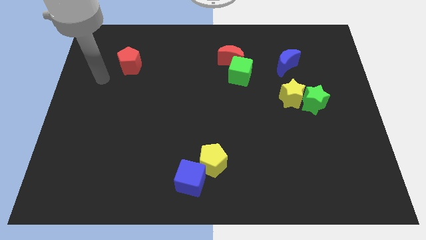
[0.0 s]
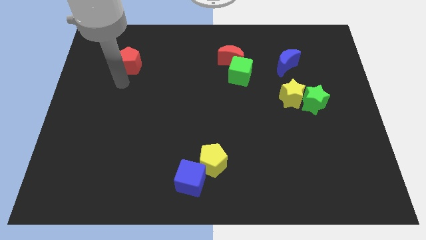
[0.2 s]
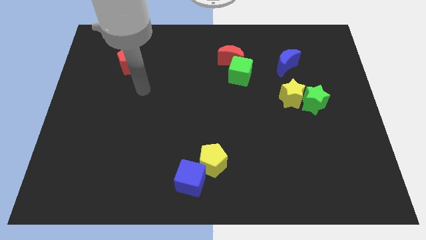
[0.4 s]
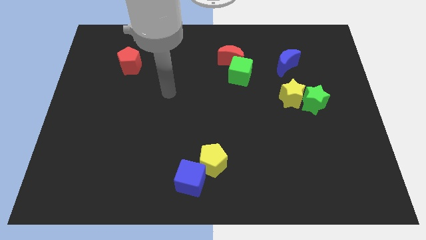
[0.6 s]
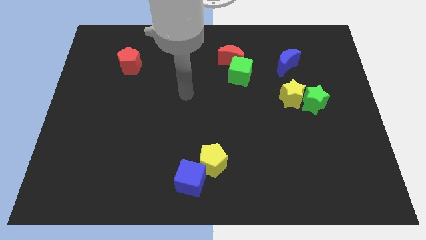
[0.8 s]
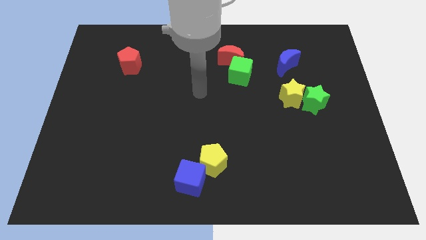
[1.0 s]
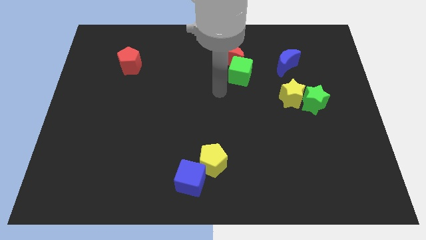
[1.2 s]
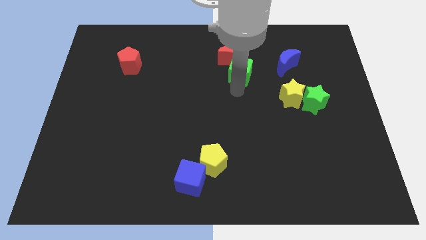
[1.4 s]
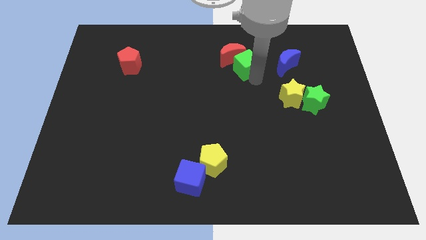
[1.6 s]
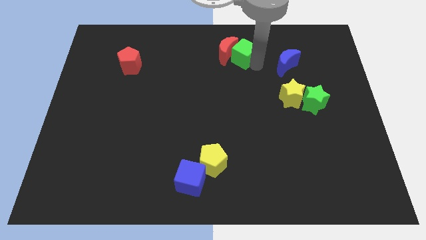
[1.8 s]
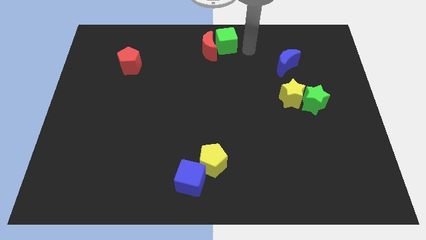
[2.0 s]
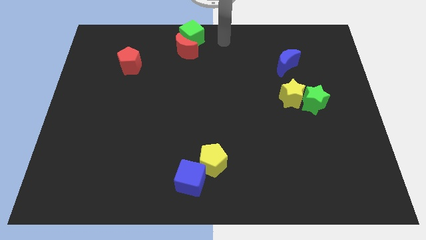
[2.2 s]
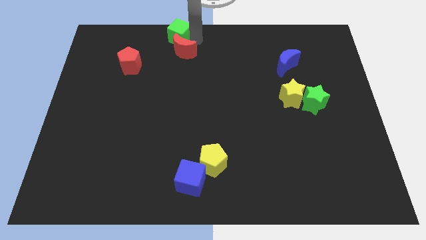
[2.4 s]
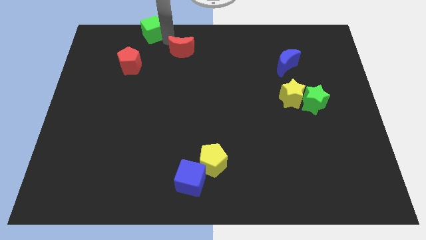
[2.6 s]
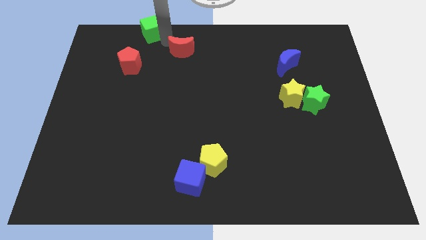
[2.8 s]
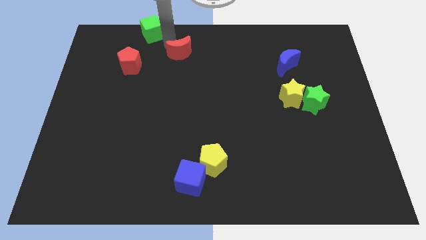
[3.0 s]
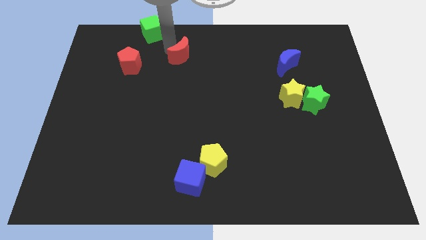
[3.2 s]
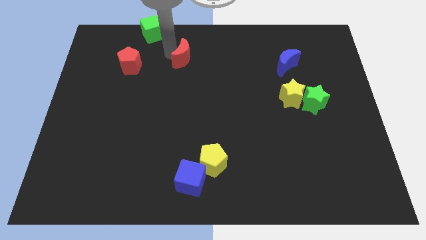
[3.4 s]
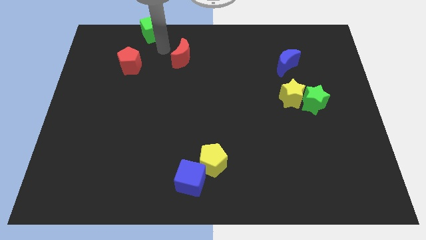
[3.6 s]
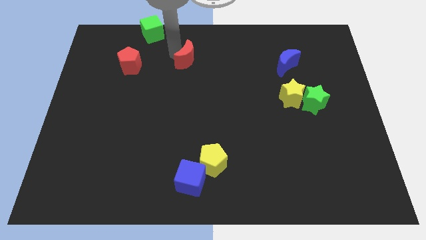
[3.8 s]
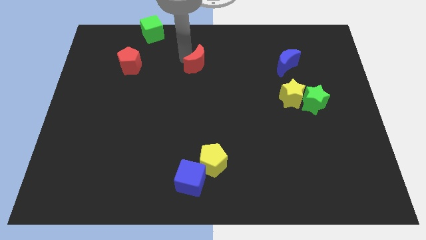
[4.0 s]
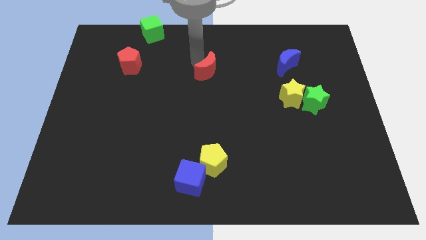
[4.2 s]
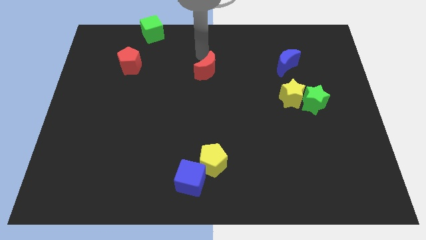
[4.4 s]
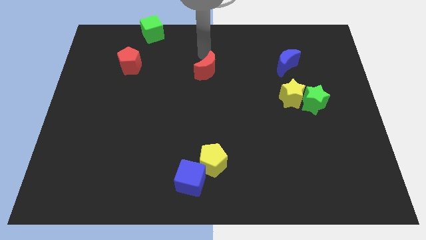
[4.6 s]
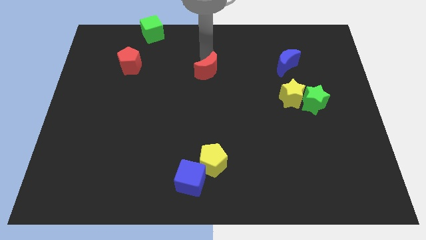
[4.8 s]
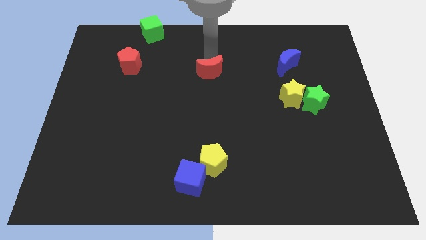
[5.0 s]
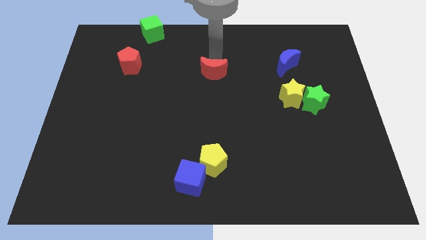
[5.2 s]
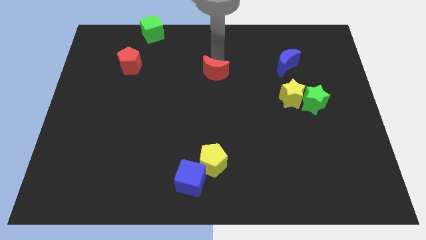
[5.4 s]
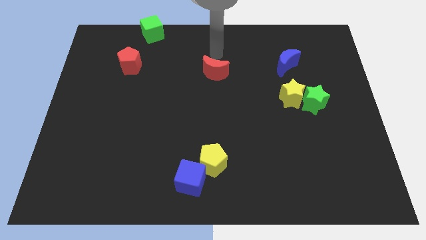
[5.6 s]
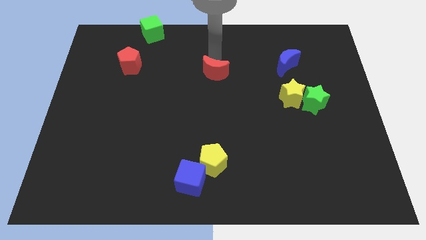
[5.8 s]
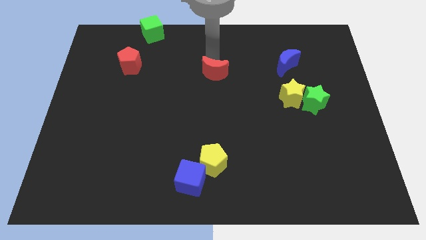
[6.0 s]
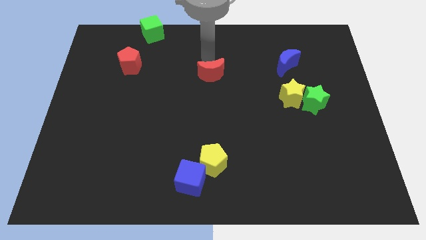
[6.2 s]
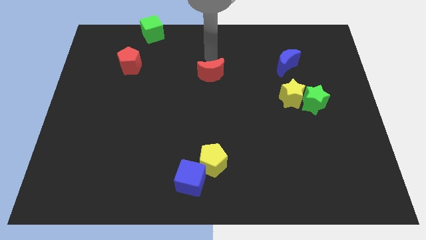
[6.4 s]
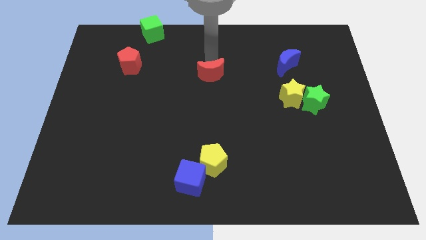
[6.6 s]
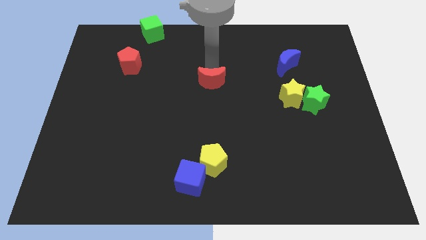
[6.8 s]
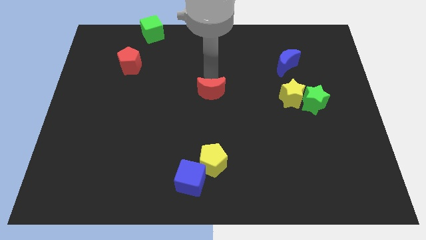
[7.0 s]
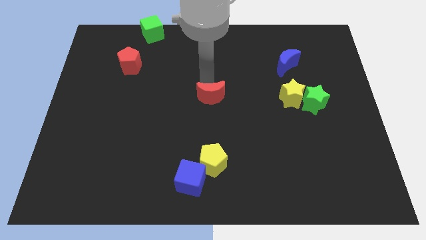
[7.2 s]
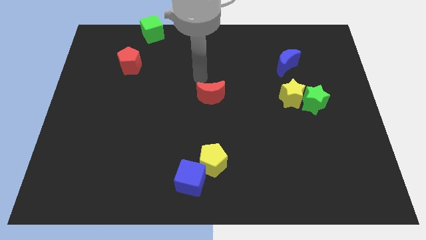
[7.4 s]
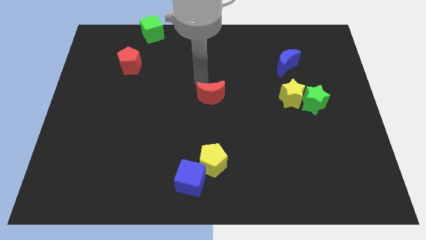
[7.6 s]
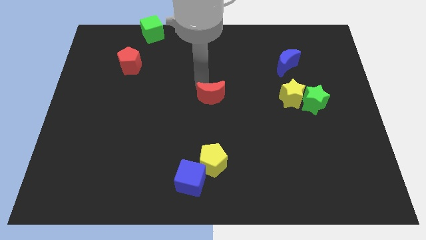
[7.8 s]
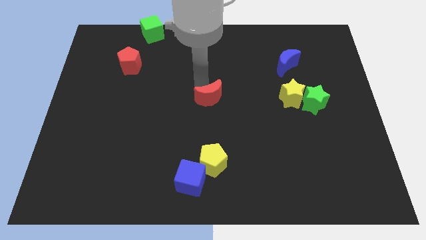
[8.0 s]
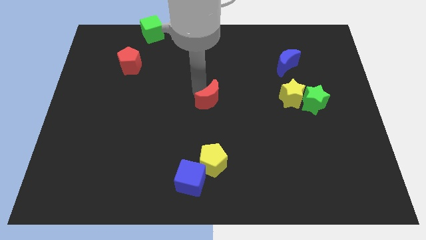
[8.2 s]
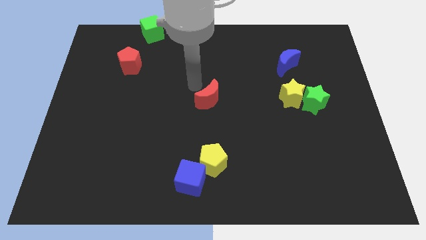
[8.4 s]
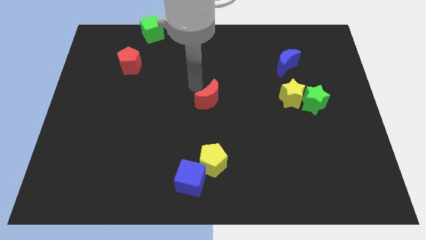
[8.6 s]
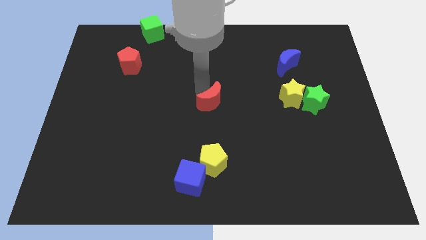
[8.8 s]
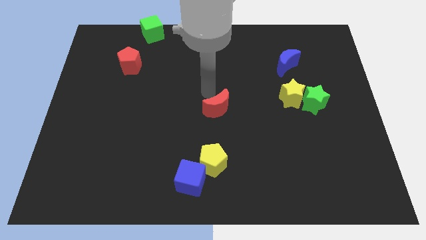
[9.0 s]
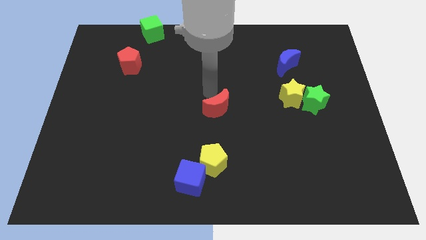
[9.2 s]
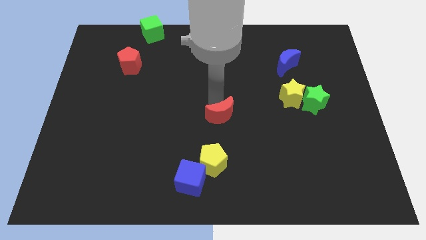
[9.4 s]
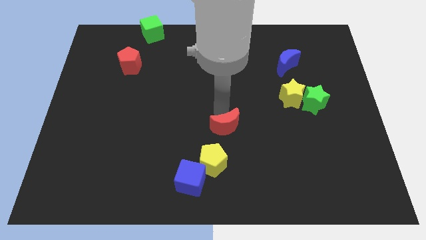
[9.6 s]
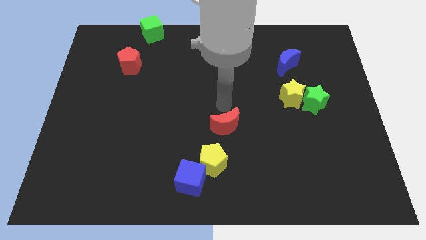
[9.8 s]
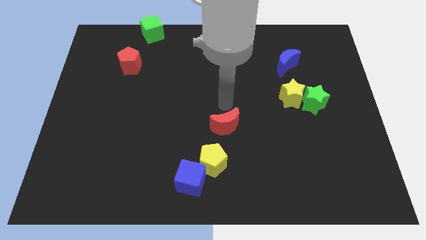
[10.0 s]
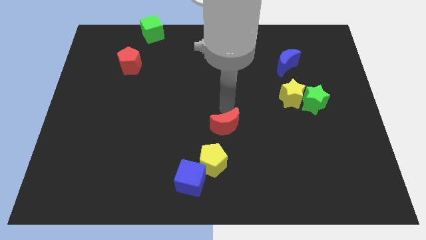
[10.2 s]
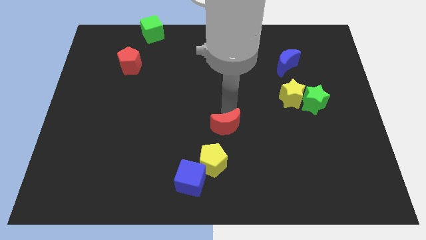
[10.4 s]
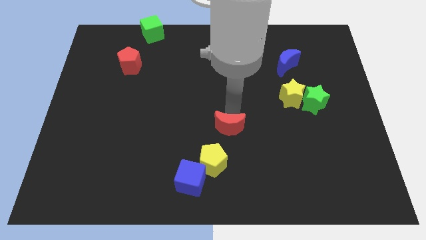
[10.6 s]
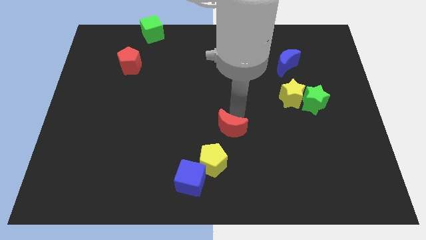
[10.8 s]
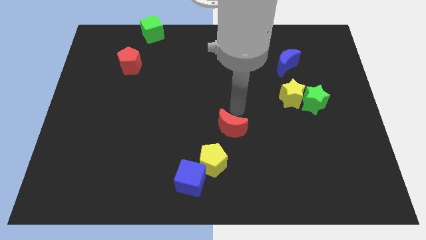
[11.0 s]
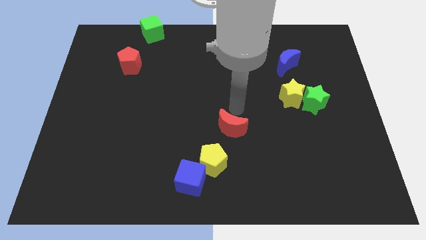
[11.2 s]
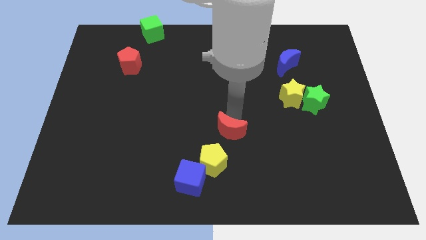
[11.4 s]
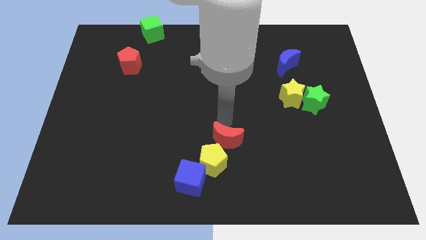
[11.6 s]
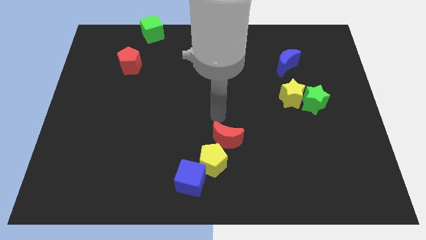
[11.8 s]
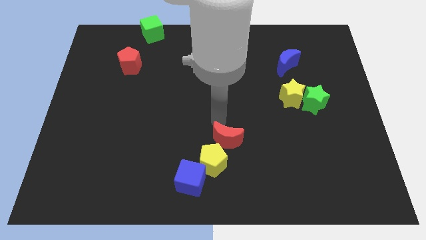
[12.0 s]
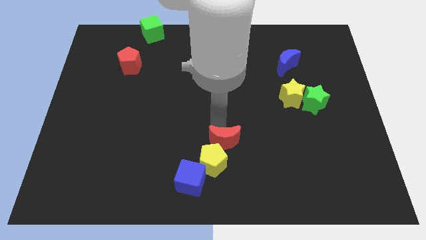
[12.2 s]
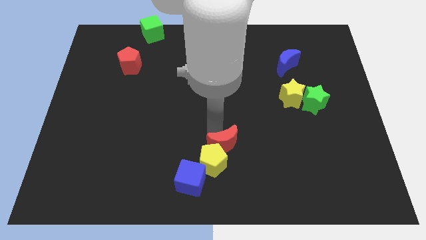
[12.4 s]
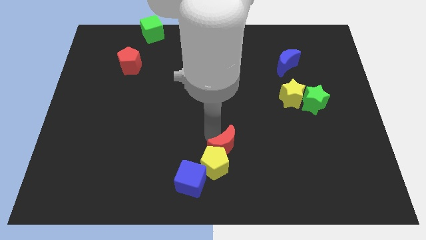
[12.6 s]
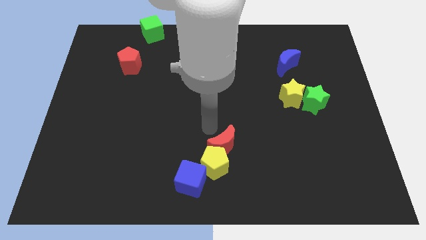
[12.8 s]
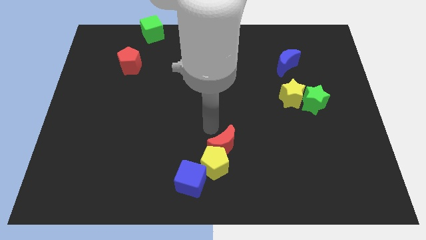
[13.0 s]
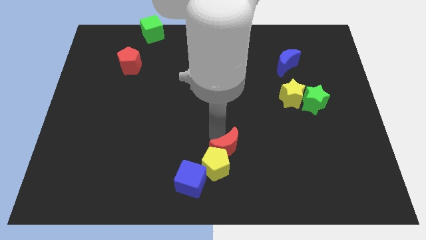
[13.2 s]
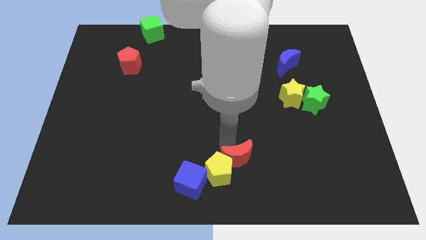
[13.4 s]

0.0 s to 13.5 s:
put the red moon to the bottom

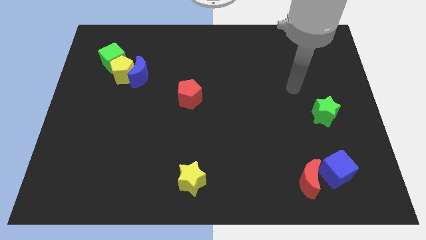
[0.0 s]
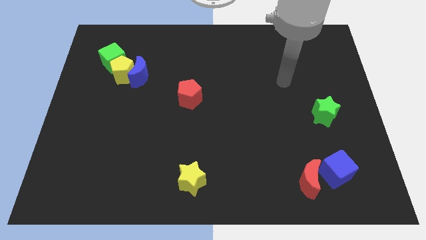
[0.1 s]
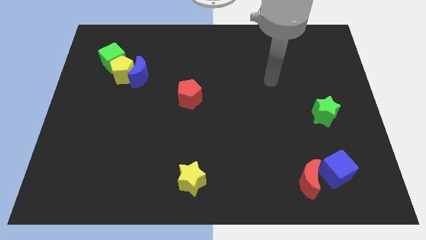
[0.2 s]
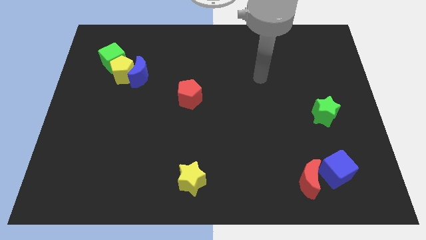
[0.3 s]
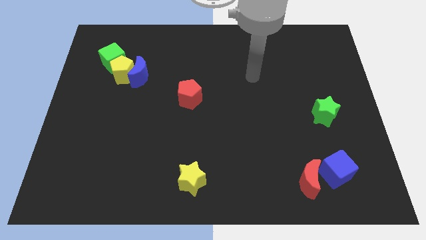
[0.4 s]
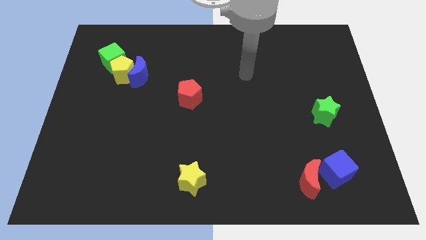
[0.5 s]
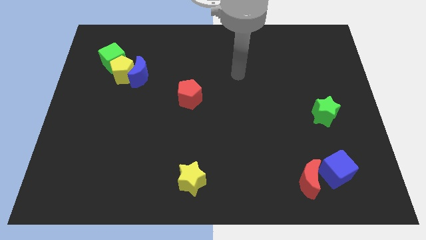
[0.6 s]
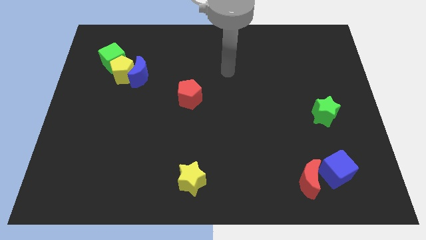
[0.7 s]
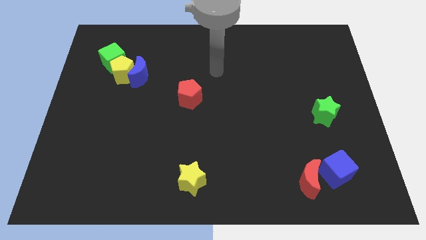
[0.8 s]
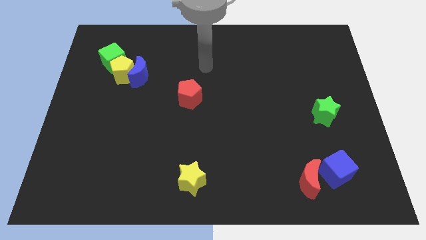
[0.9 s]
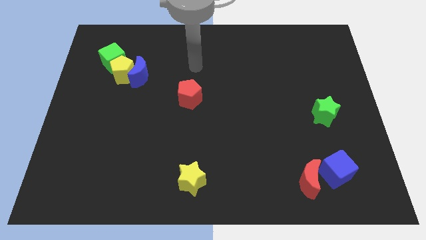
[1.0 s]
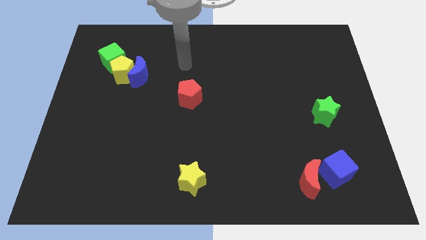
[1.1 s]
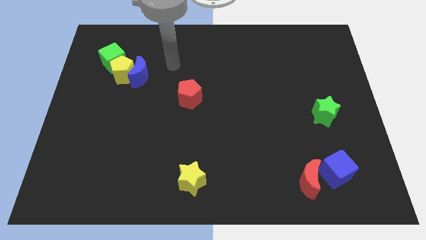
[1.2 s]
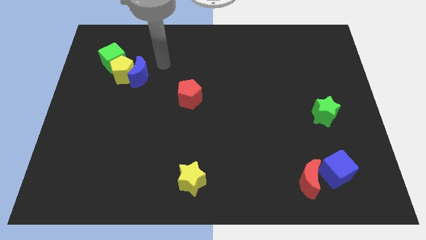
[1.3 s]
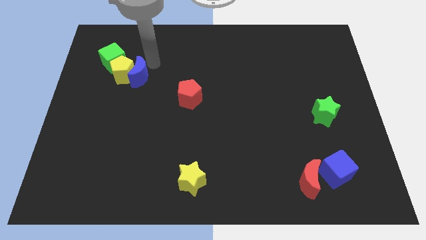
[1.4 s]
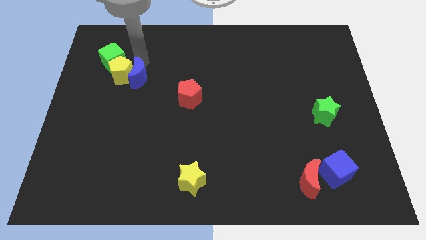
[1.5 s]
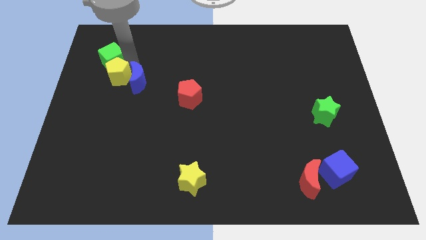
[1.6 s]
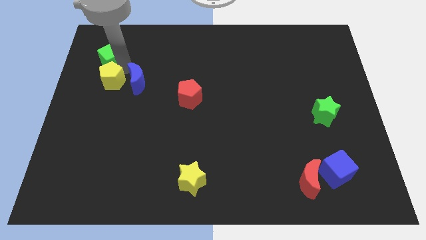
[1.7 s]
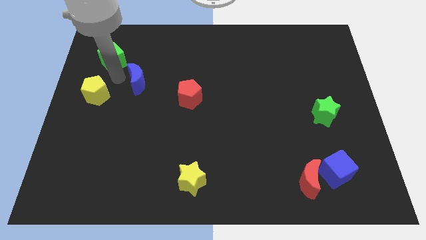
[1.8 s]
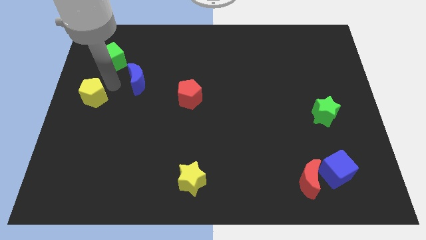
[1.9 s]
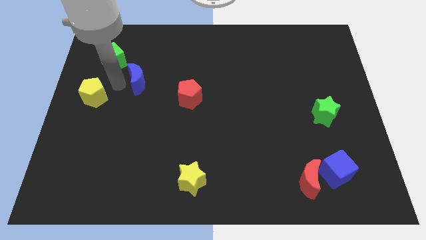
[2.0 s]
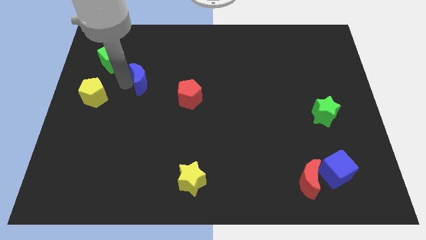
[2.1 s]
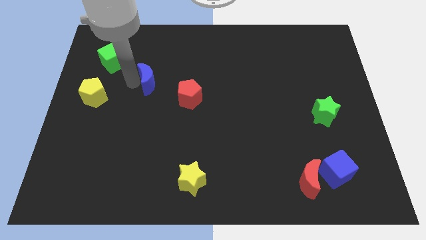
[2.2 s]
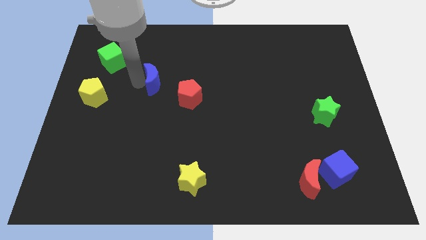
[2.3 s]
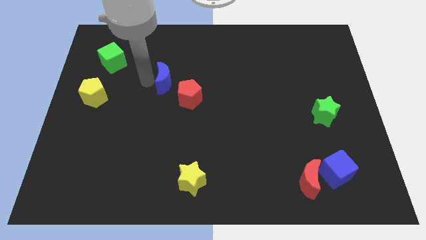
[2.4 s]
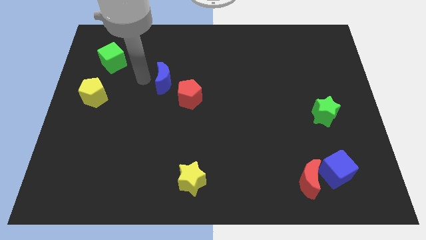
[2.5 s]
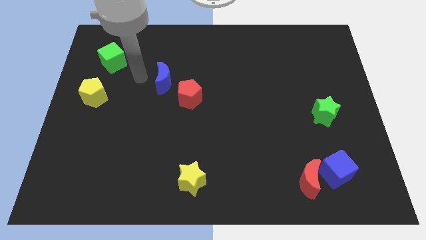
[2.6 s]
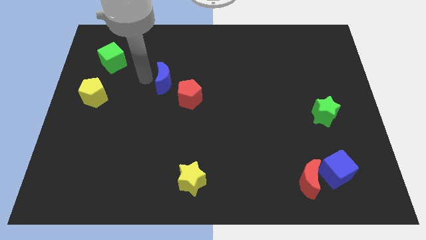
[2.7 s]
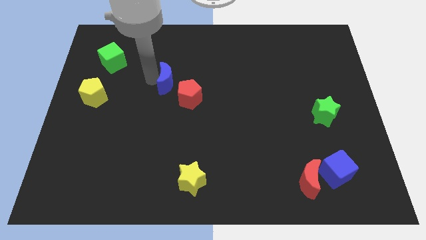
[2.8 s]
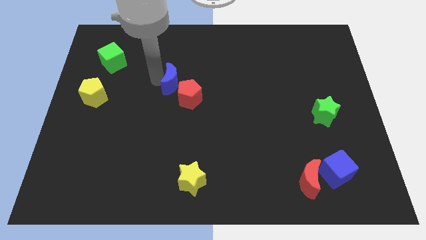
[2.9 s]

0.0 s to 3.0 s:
push the blue moon to the middle of the board
